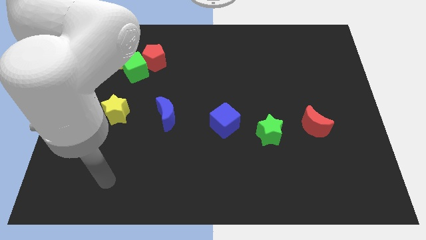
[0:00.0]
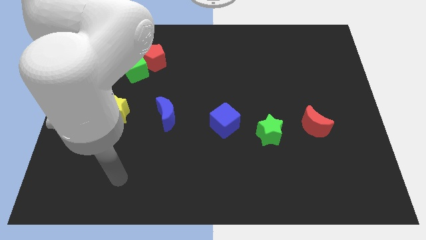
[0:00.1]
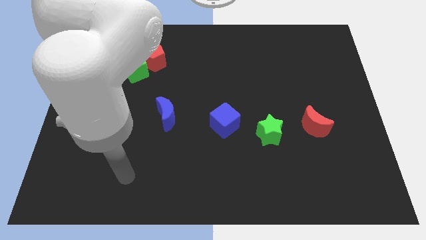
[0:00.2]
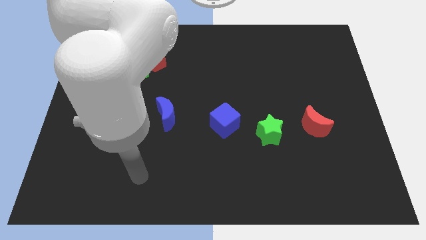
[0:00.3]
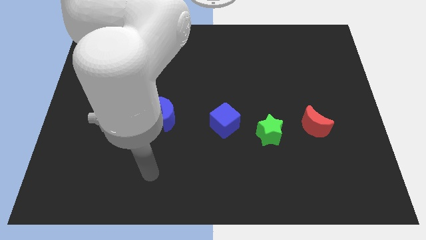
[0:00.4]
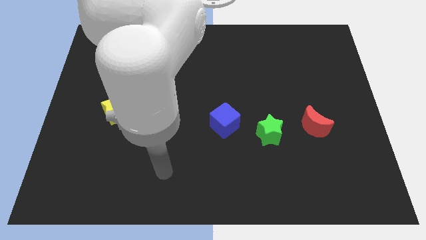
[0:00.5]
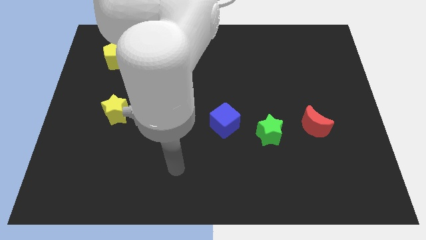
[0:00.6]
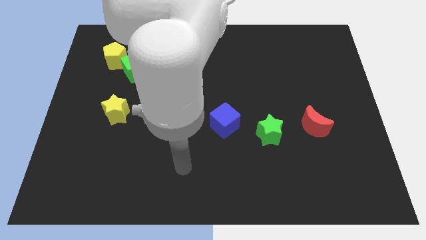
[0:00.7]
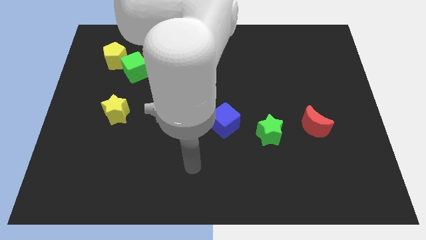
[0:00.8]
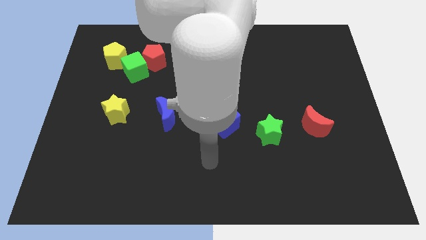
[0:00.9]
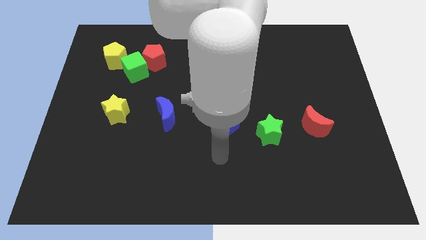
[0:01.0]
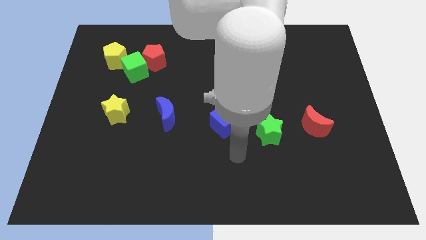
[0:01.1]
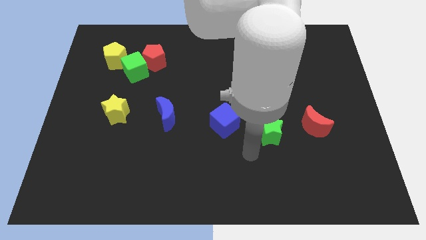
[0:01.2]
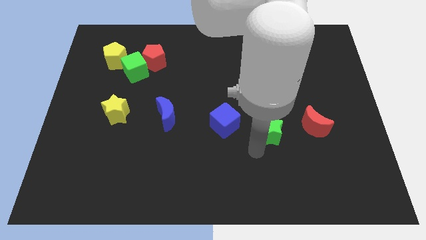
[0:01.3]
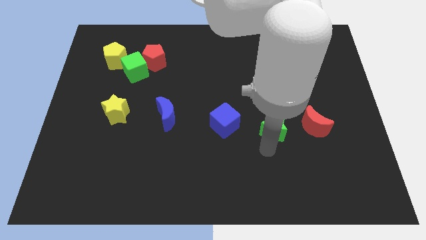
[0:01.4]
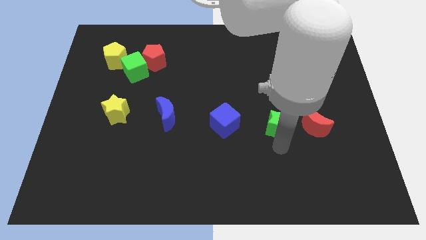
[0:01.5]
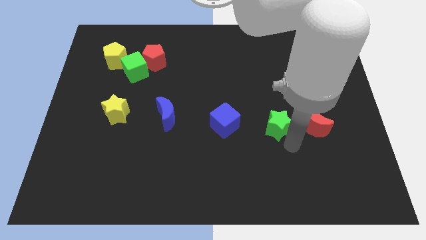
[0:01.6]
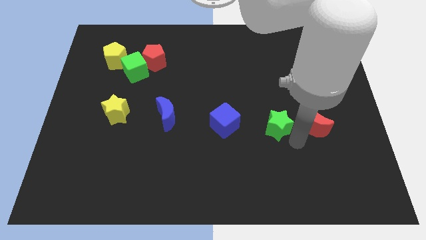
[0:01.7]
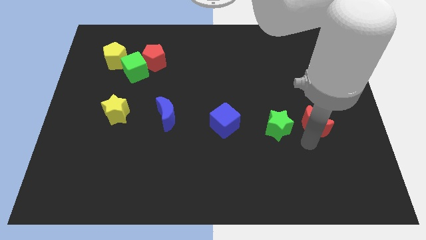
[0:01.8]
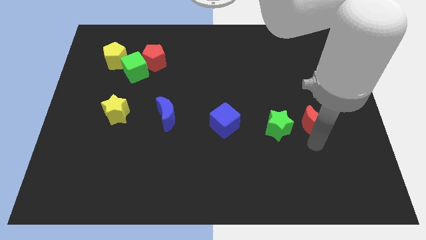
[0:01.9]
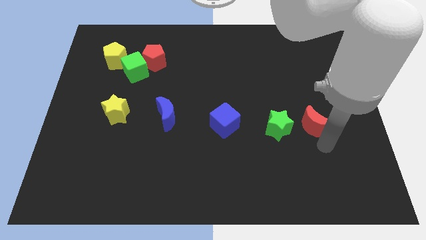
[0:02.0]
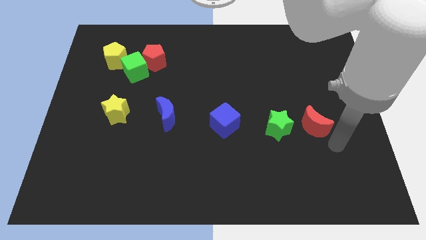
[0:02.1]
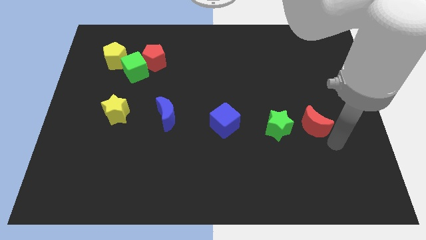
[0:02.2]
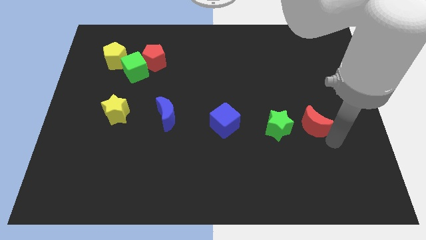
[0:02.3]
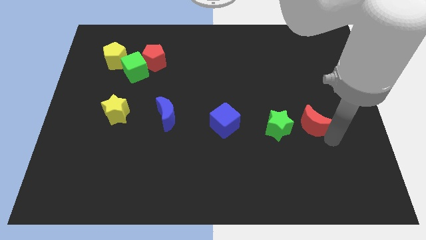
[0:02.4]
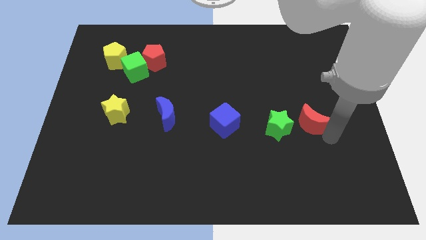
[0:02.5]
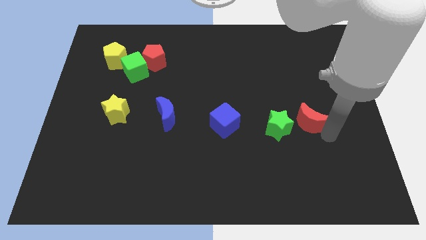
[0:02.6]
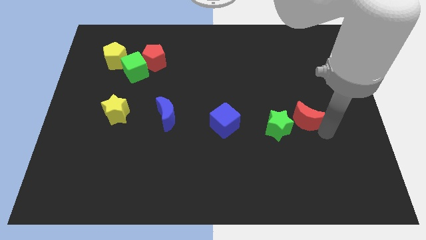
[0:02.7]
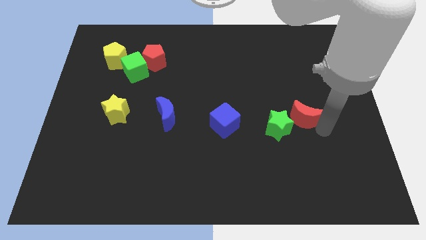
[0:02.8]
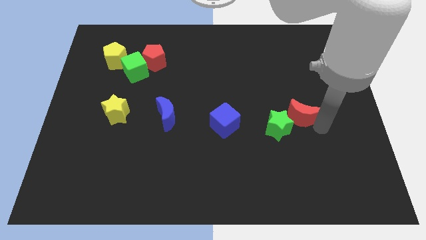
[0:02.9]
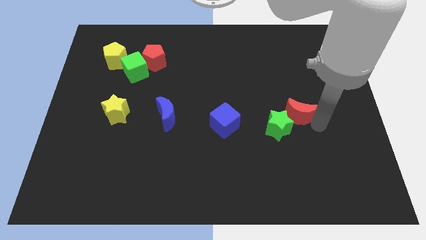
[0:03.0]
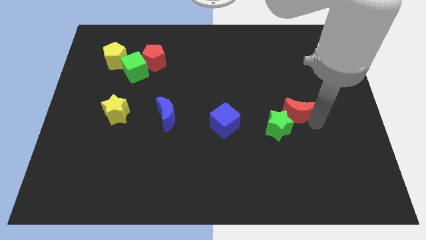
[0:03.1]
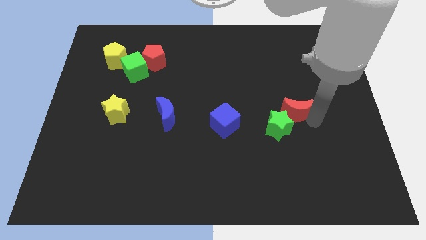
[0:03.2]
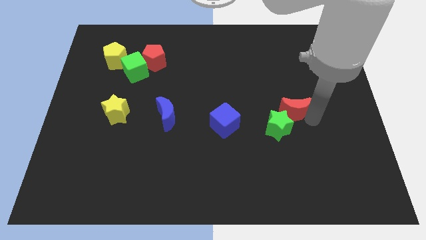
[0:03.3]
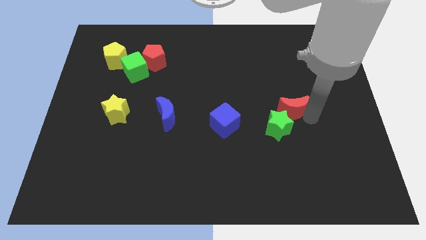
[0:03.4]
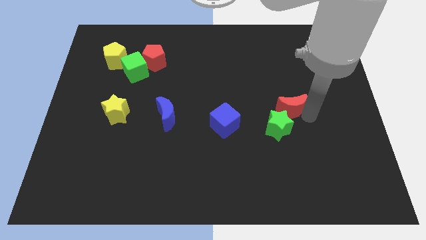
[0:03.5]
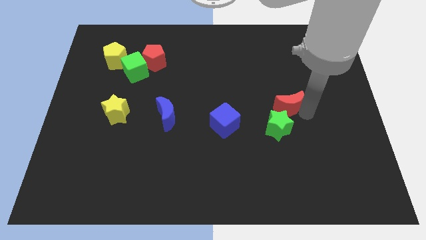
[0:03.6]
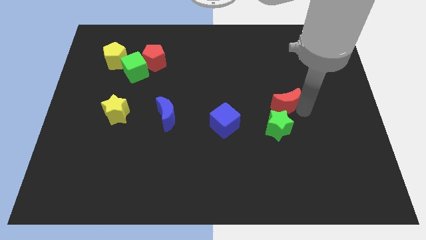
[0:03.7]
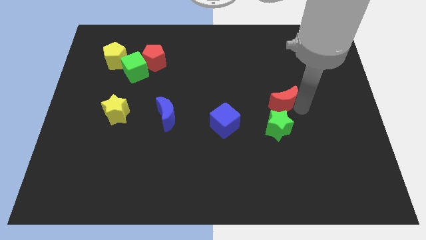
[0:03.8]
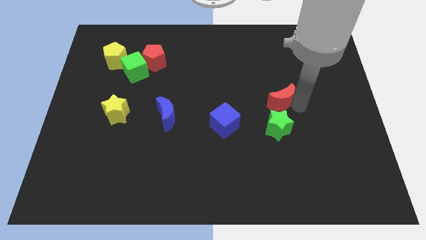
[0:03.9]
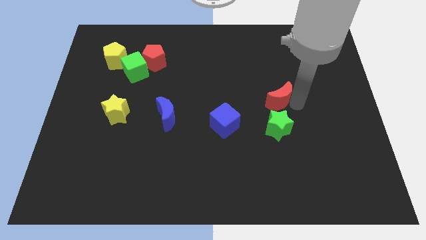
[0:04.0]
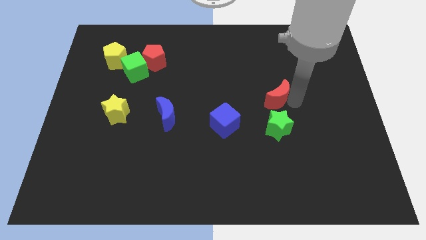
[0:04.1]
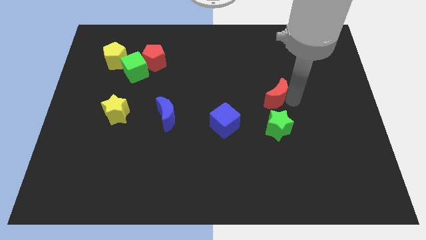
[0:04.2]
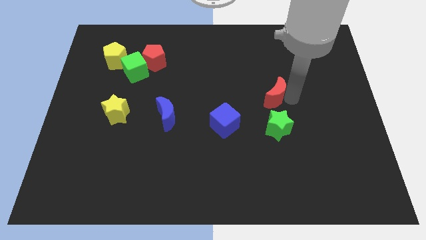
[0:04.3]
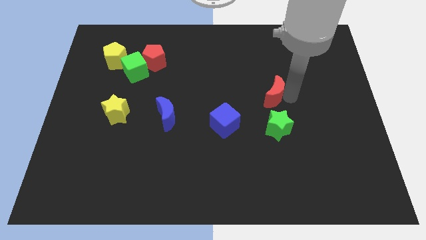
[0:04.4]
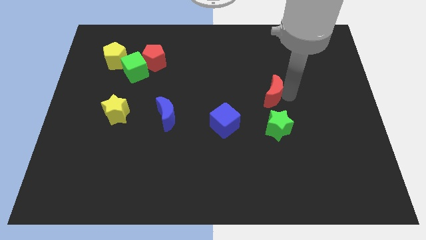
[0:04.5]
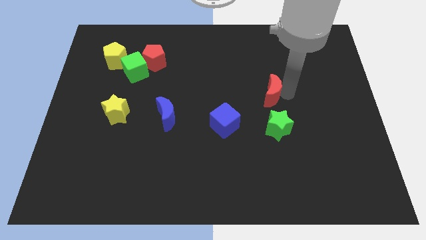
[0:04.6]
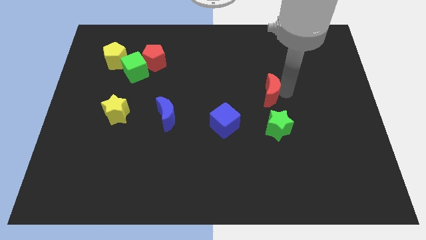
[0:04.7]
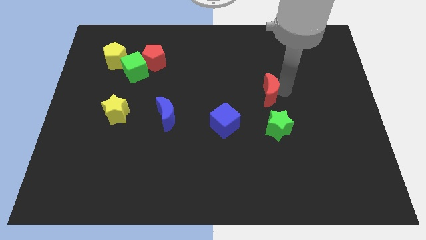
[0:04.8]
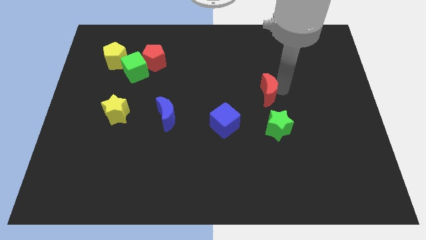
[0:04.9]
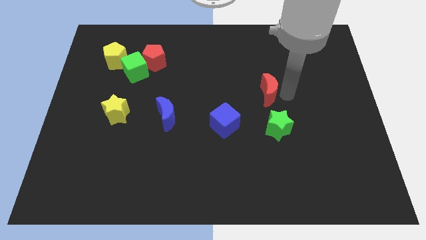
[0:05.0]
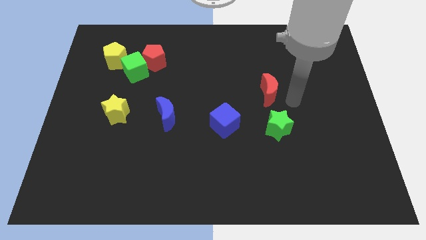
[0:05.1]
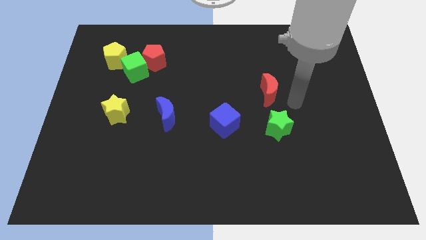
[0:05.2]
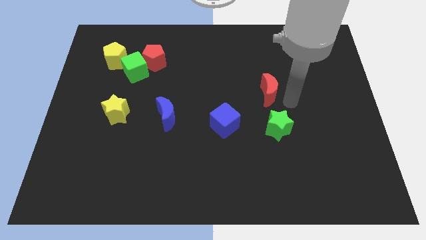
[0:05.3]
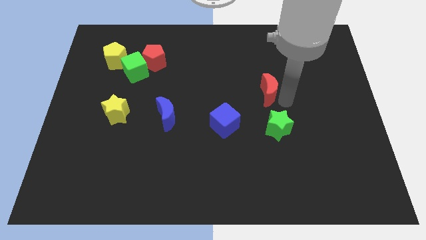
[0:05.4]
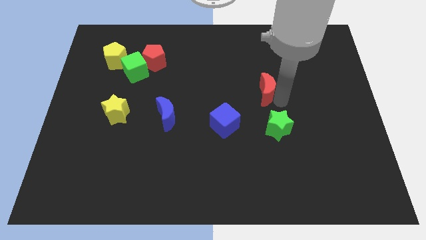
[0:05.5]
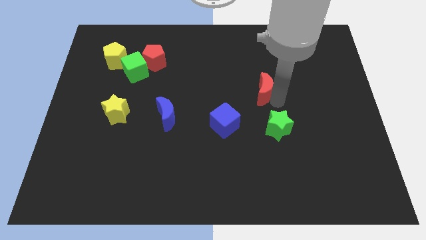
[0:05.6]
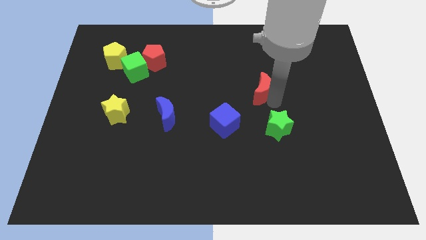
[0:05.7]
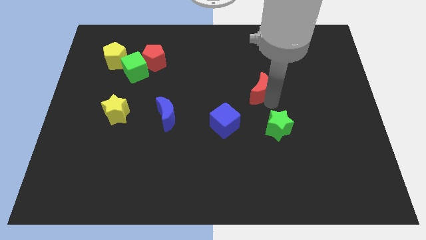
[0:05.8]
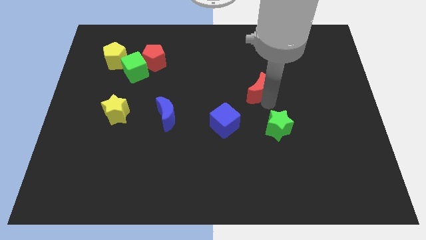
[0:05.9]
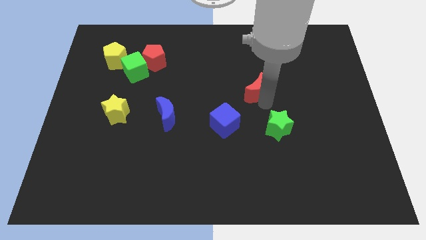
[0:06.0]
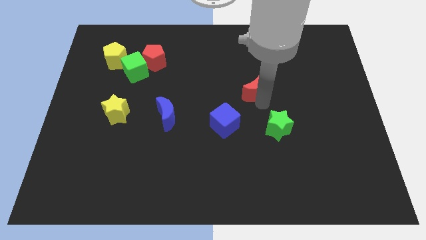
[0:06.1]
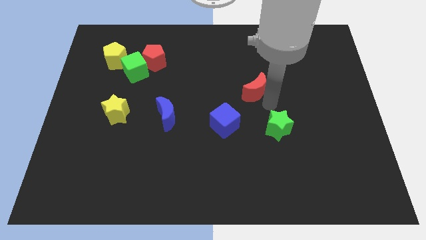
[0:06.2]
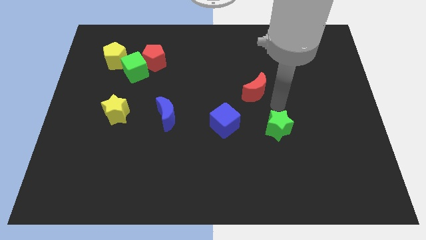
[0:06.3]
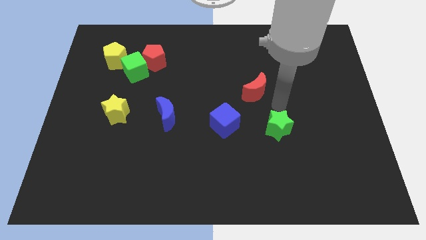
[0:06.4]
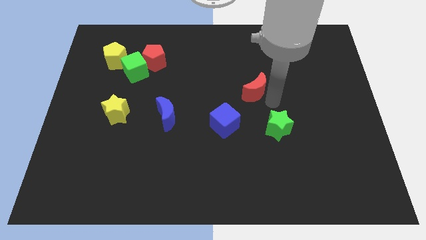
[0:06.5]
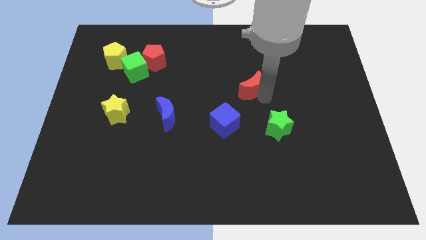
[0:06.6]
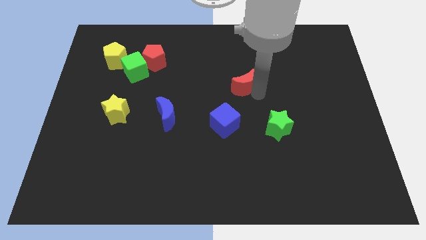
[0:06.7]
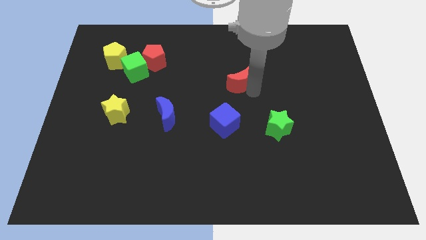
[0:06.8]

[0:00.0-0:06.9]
move the red moon diagonally upwards and to the left

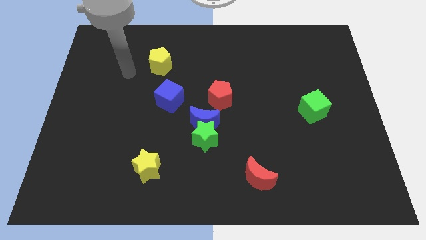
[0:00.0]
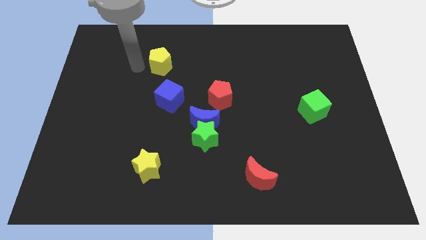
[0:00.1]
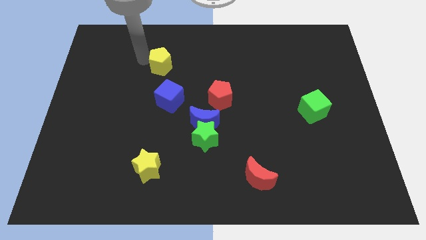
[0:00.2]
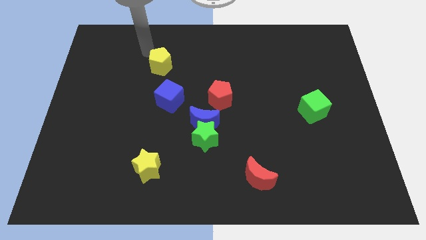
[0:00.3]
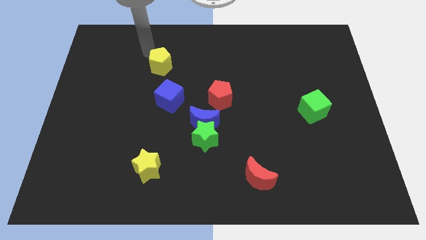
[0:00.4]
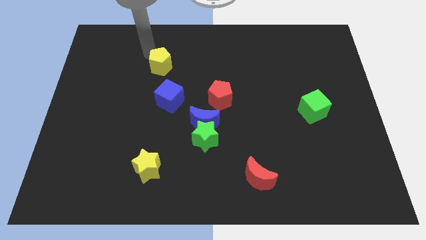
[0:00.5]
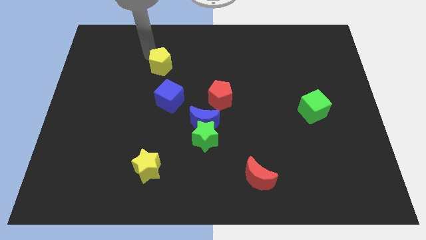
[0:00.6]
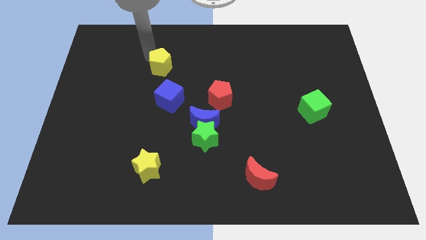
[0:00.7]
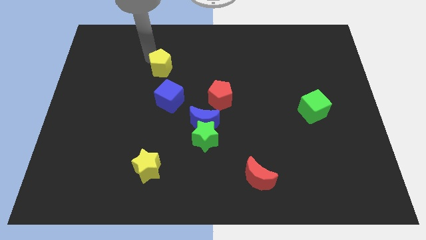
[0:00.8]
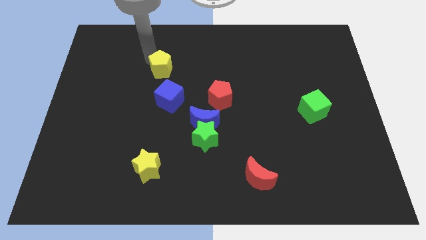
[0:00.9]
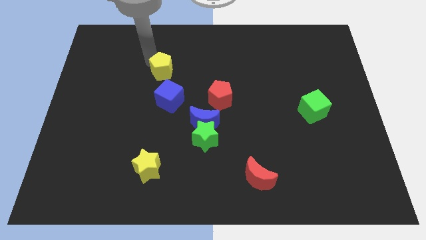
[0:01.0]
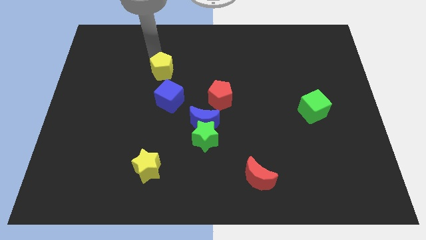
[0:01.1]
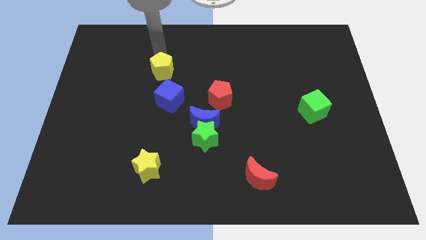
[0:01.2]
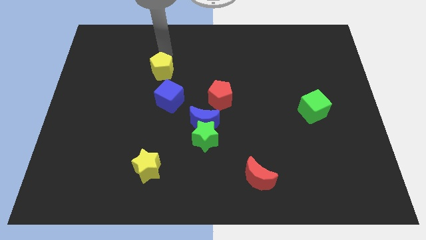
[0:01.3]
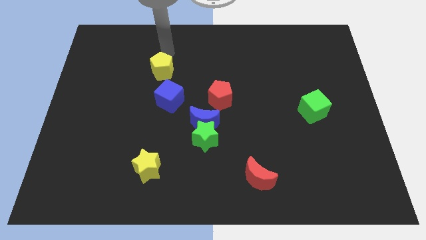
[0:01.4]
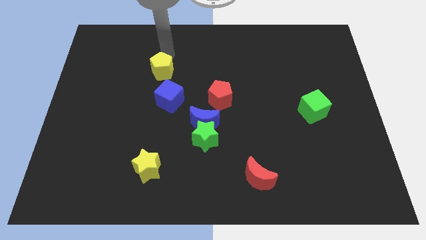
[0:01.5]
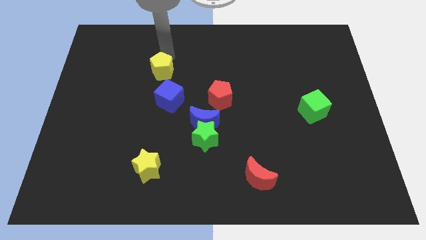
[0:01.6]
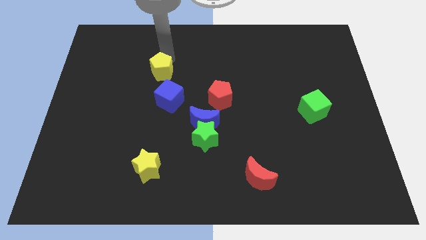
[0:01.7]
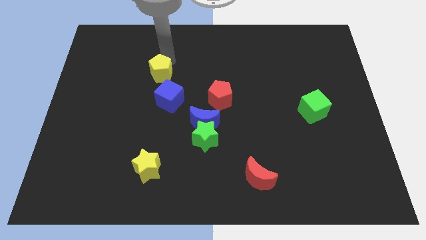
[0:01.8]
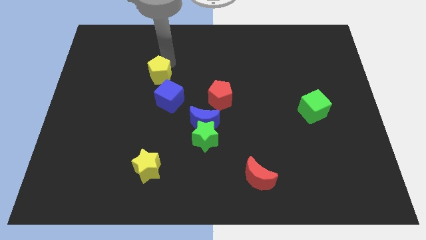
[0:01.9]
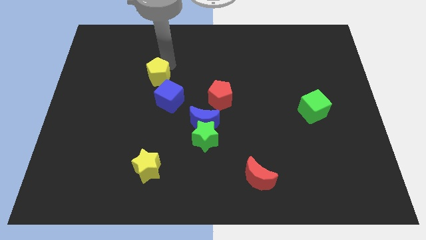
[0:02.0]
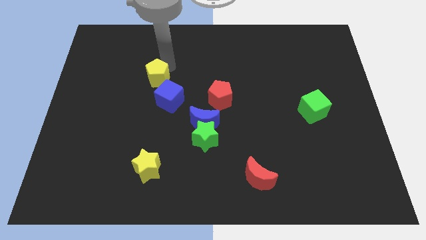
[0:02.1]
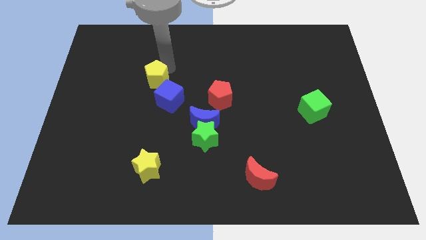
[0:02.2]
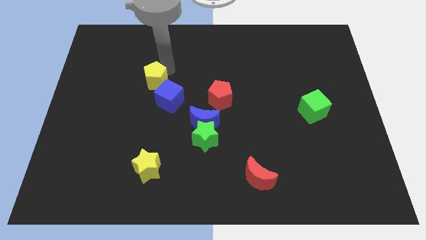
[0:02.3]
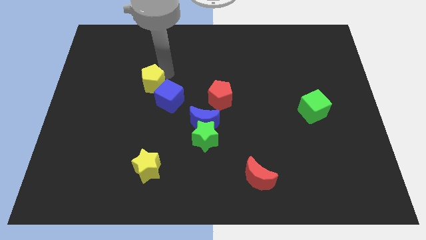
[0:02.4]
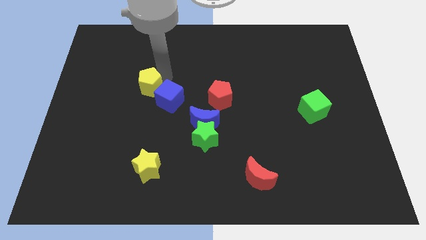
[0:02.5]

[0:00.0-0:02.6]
push the yellow pentagon down somewhat
